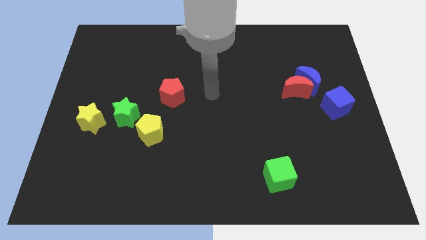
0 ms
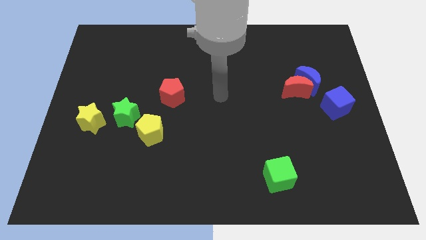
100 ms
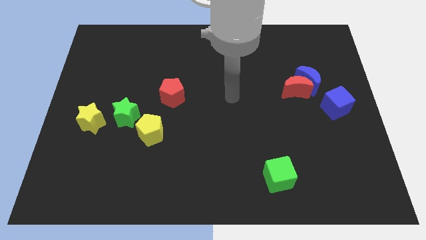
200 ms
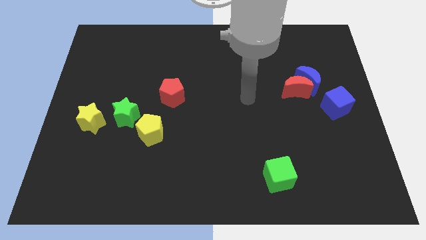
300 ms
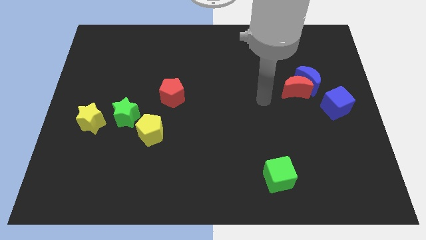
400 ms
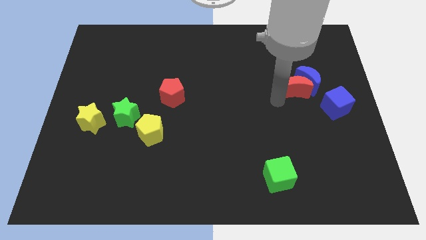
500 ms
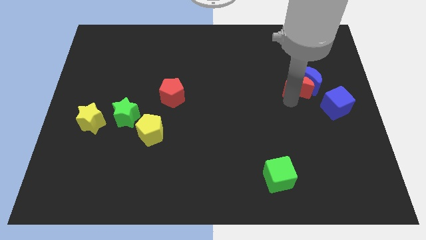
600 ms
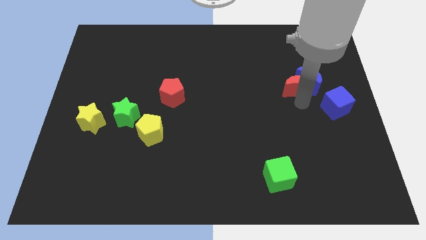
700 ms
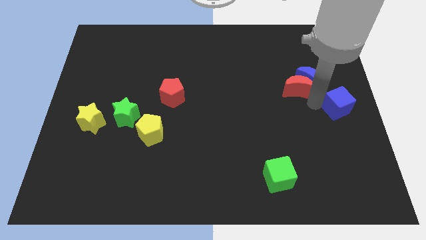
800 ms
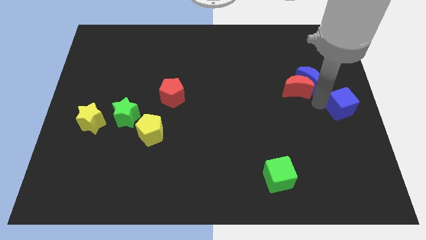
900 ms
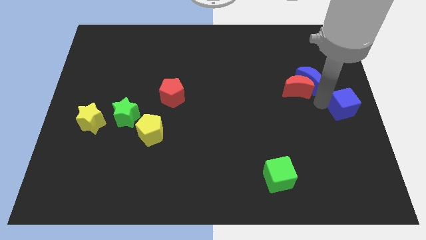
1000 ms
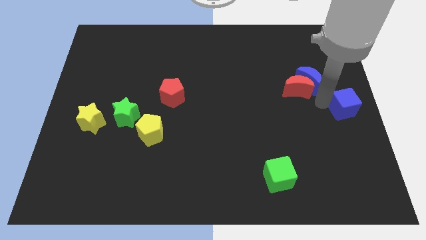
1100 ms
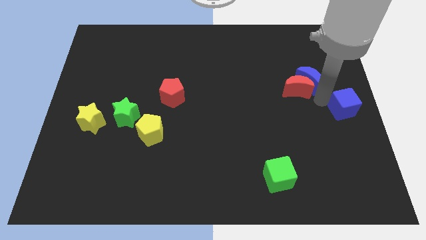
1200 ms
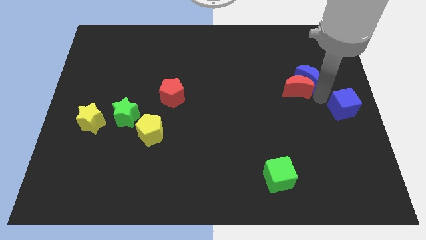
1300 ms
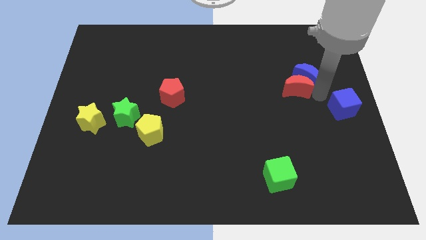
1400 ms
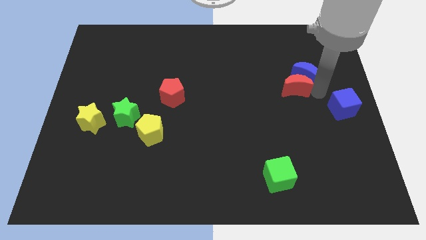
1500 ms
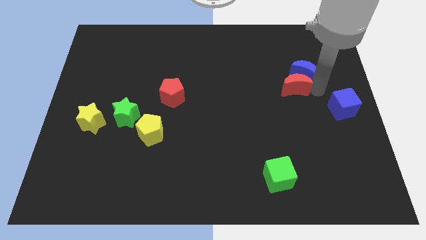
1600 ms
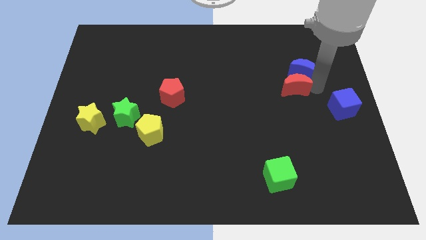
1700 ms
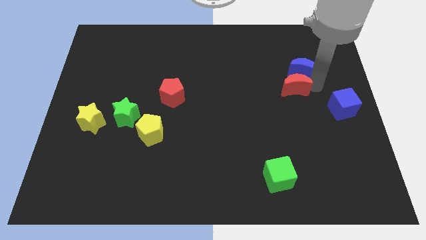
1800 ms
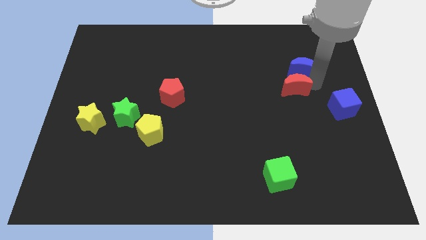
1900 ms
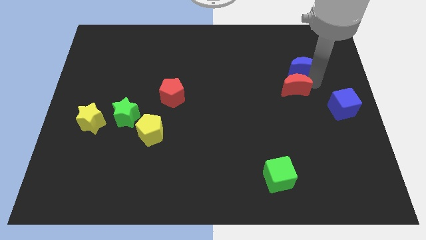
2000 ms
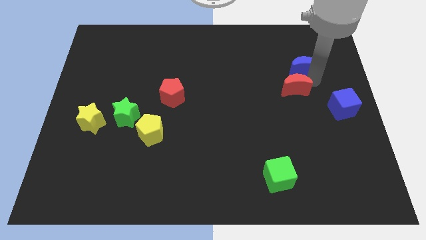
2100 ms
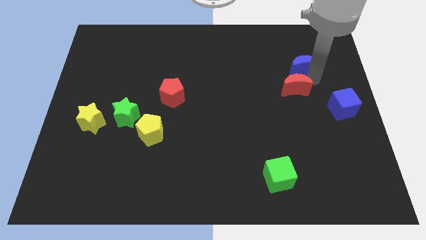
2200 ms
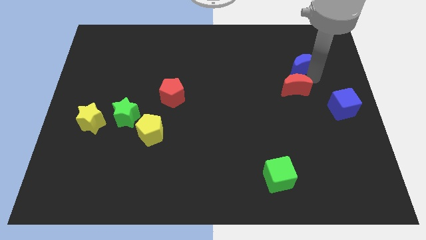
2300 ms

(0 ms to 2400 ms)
move the blue moon away from the red moon and blue cube

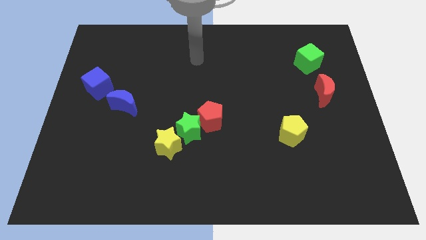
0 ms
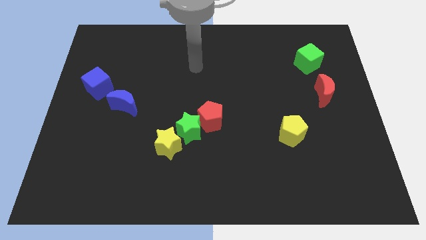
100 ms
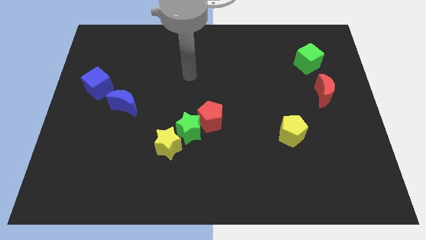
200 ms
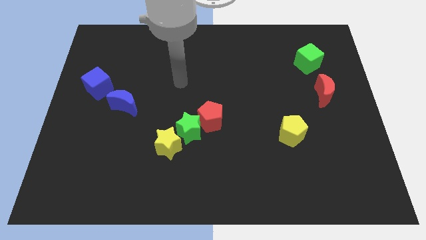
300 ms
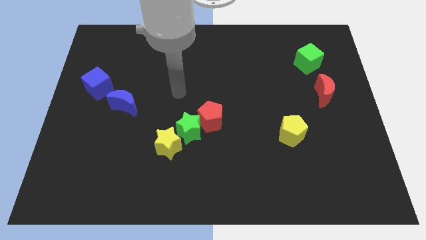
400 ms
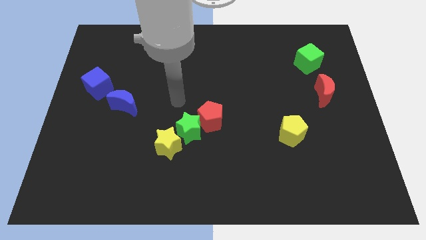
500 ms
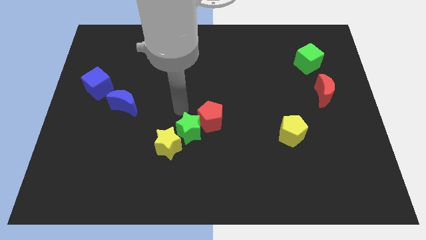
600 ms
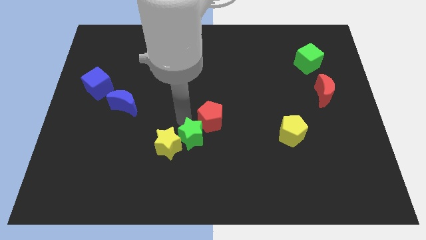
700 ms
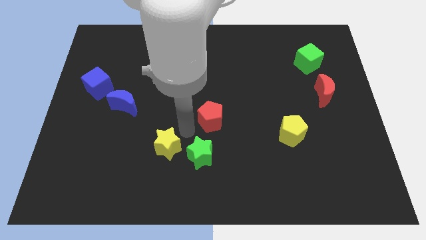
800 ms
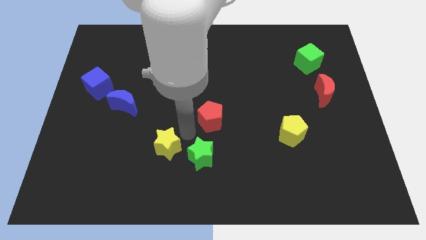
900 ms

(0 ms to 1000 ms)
move the red pentagon away from the green star

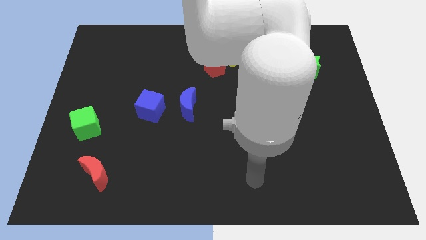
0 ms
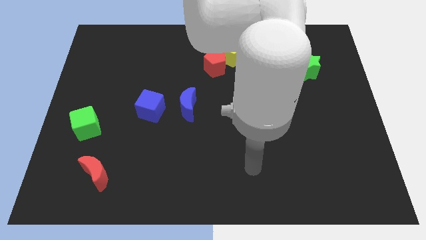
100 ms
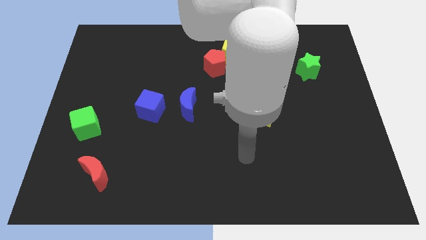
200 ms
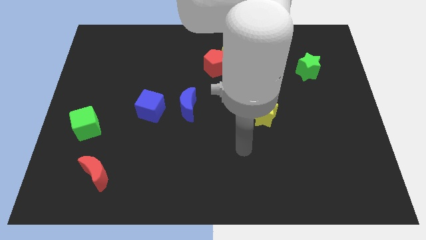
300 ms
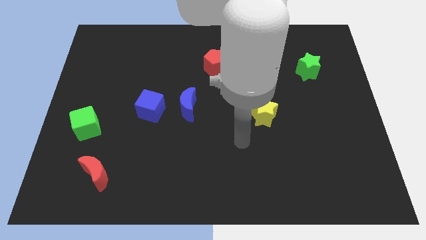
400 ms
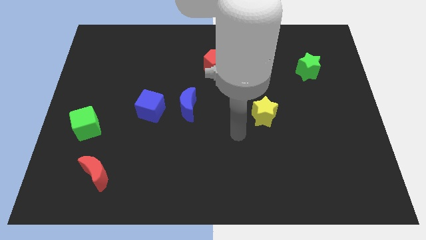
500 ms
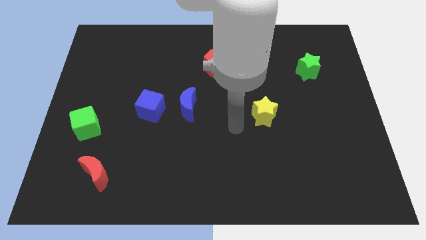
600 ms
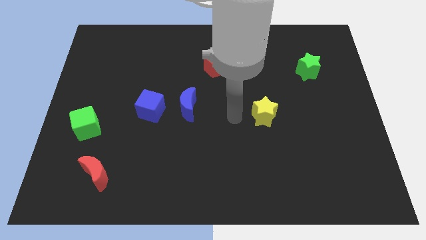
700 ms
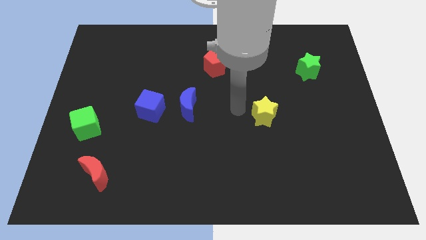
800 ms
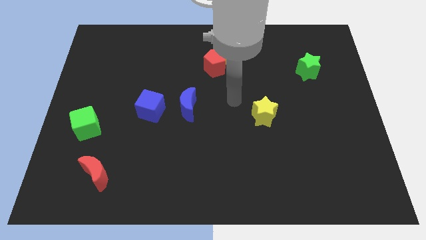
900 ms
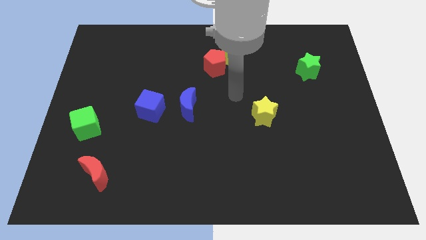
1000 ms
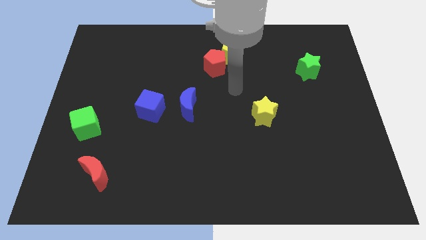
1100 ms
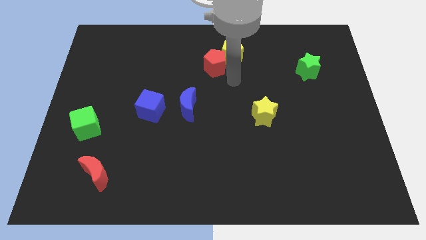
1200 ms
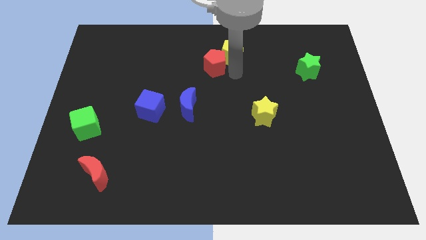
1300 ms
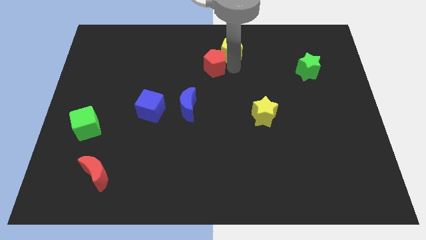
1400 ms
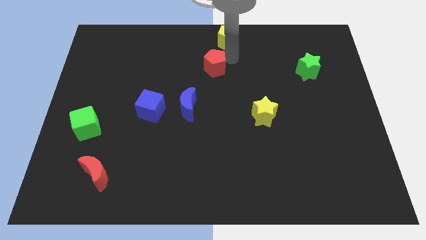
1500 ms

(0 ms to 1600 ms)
separate the red pentagon from the yellow pentagon

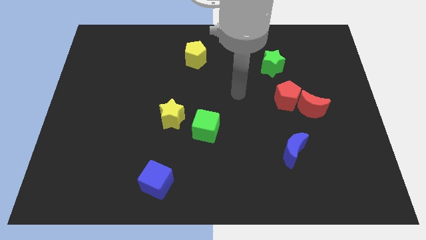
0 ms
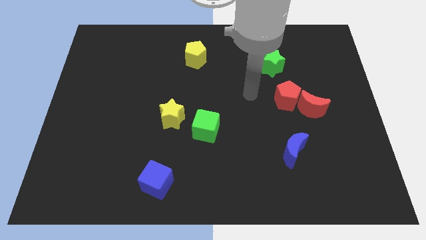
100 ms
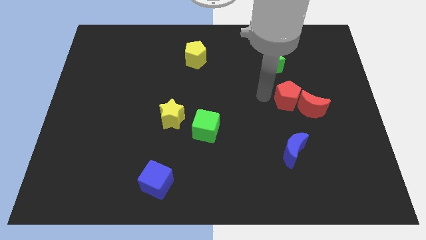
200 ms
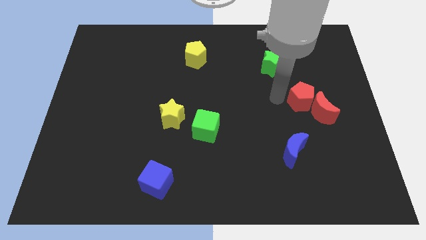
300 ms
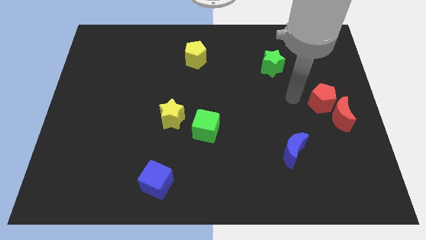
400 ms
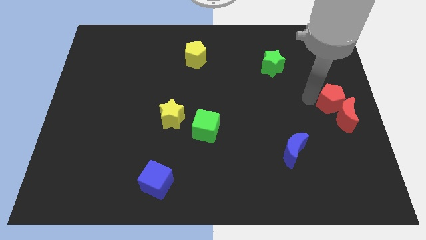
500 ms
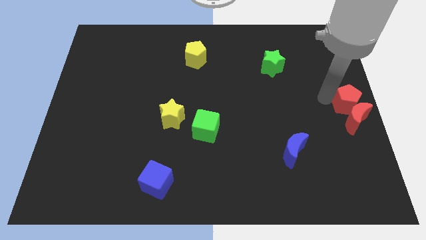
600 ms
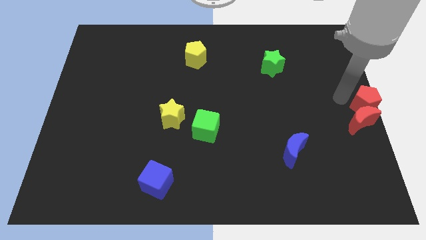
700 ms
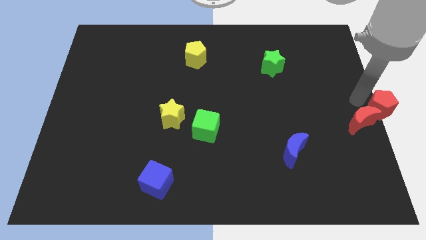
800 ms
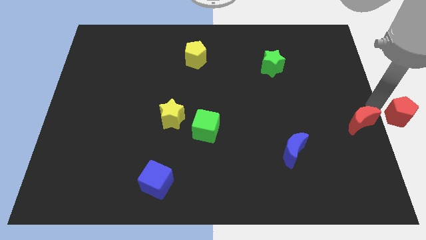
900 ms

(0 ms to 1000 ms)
move the red moon away from the red pentagon

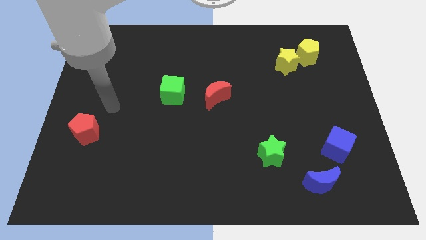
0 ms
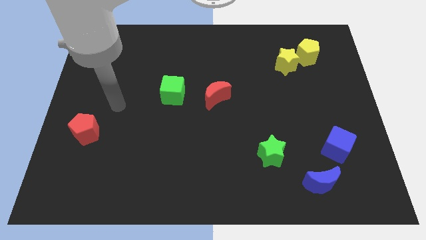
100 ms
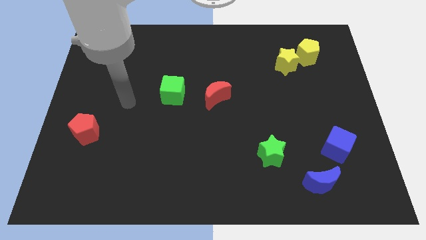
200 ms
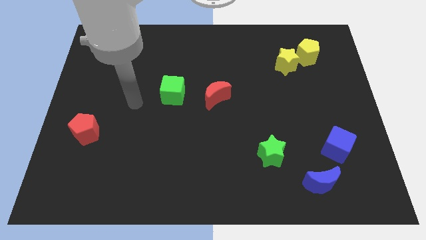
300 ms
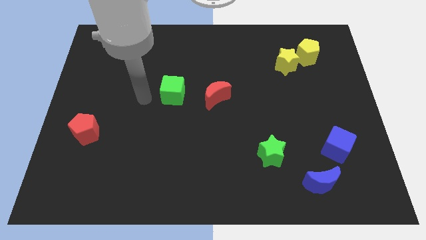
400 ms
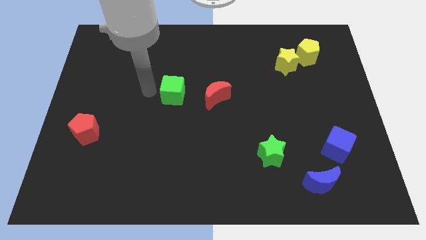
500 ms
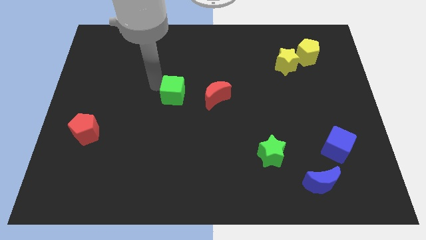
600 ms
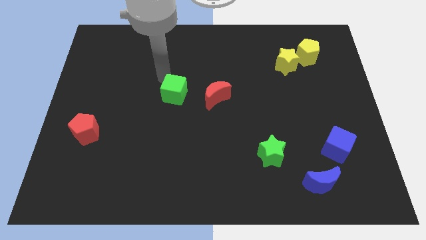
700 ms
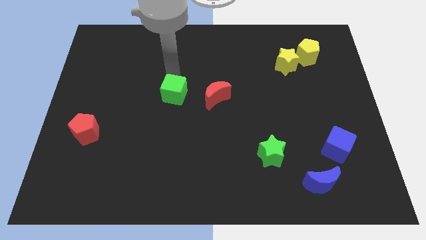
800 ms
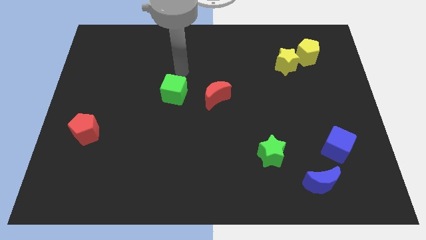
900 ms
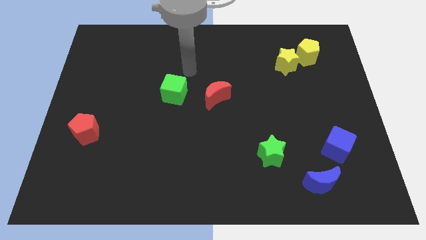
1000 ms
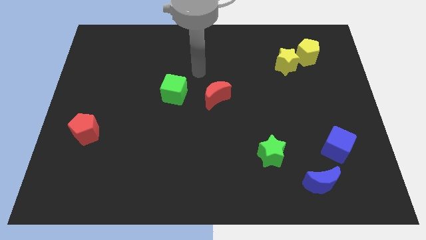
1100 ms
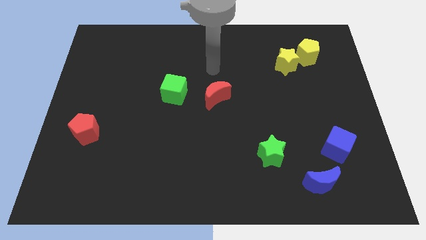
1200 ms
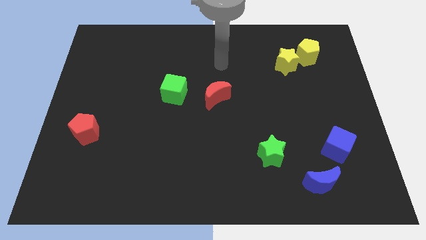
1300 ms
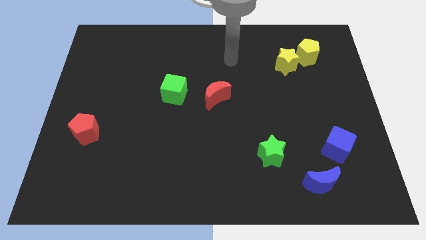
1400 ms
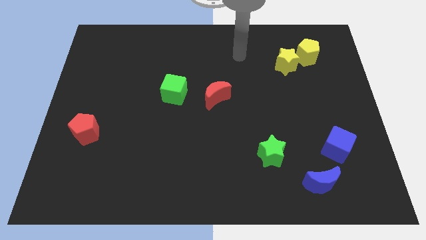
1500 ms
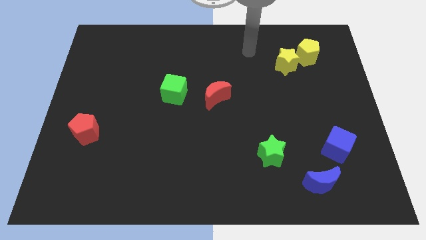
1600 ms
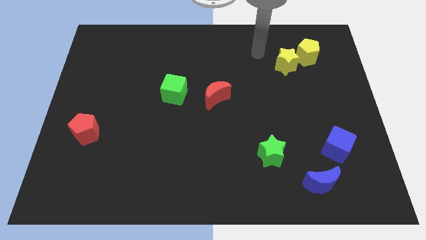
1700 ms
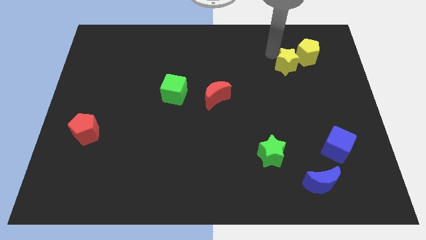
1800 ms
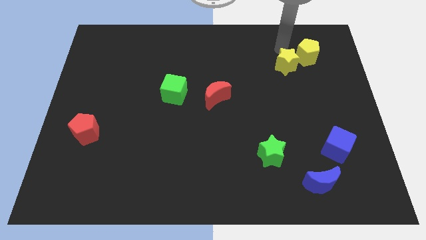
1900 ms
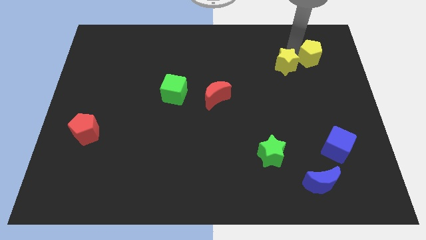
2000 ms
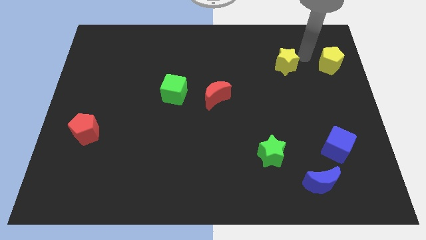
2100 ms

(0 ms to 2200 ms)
pull the yellow star apart from the yellow pentagon

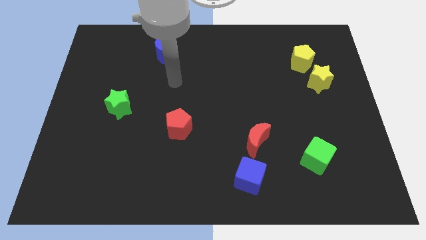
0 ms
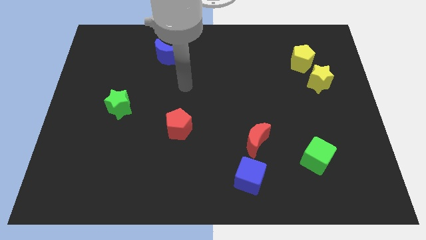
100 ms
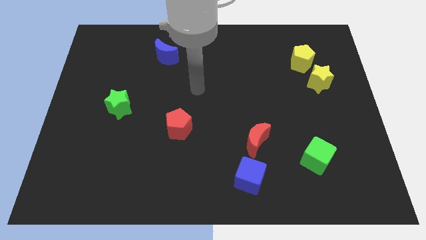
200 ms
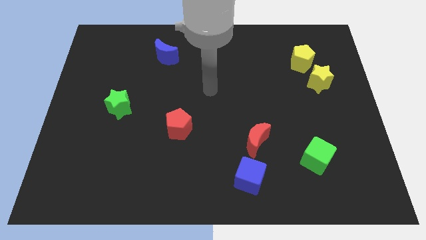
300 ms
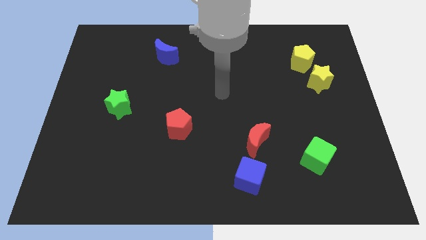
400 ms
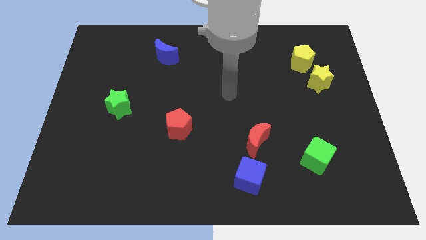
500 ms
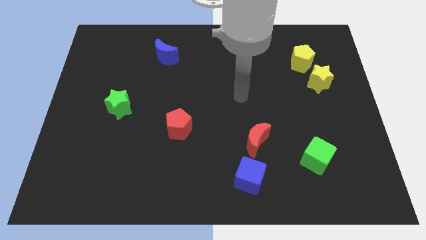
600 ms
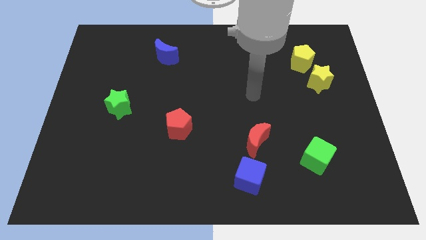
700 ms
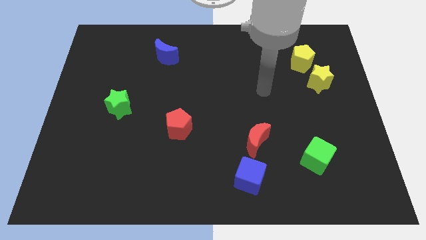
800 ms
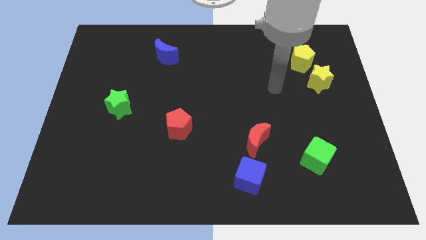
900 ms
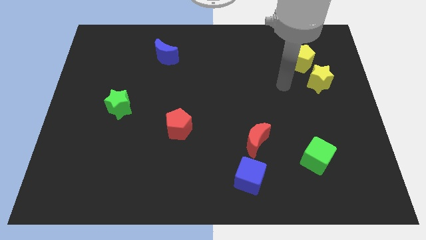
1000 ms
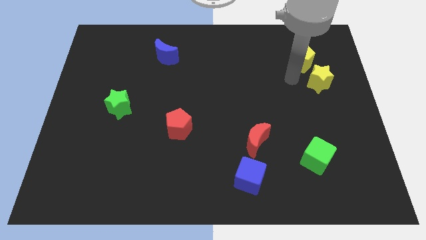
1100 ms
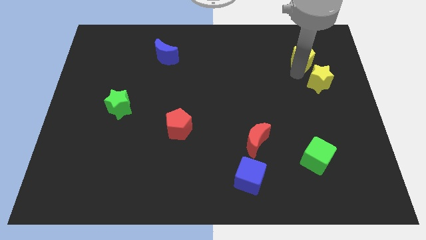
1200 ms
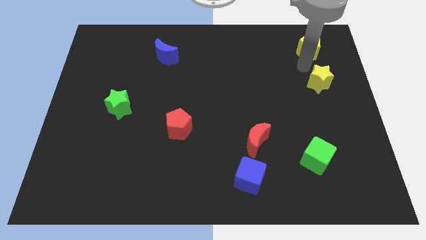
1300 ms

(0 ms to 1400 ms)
separate the yellow star from the yellow pentagon
